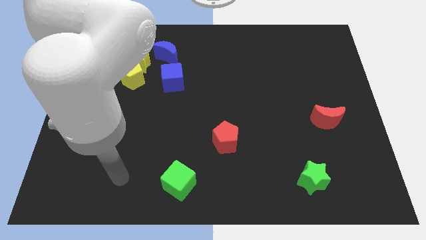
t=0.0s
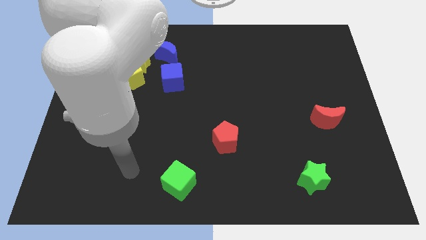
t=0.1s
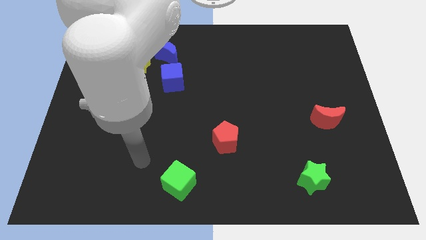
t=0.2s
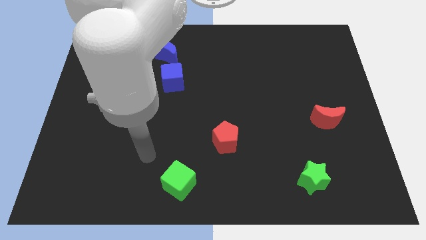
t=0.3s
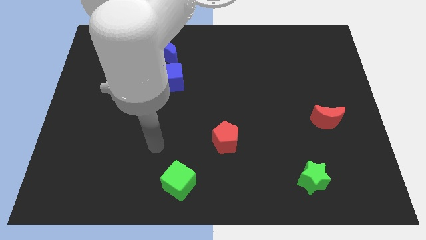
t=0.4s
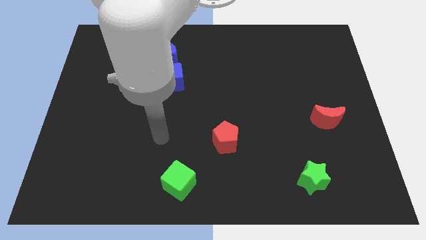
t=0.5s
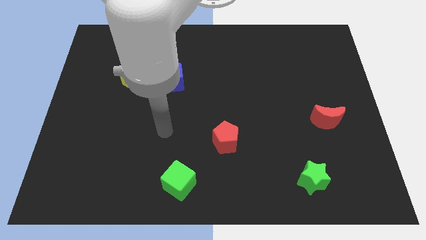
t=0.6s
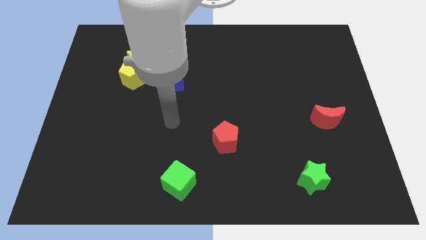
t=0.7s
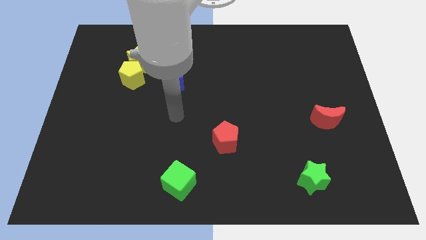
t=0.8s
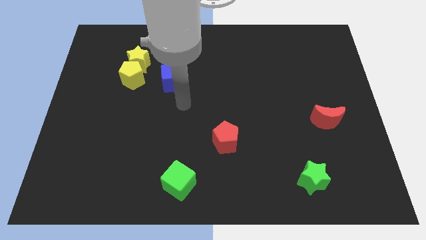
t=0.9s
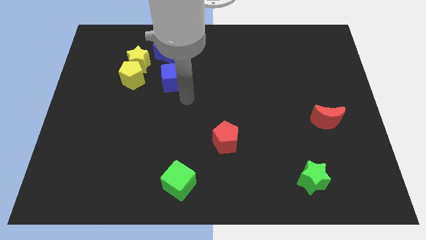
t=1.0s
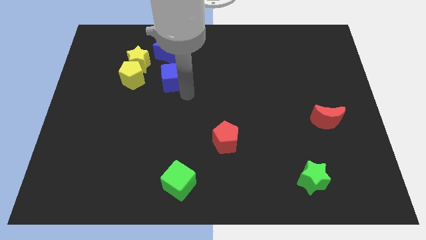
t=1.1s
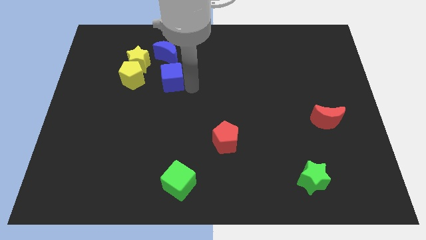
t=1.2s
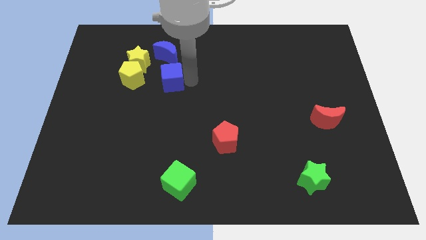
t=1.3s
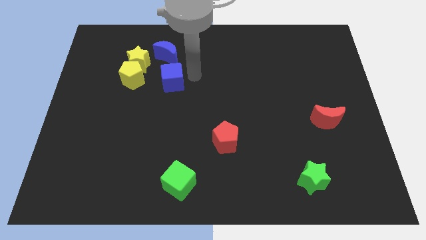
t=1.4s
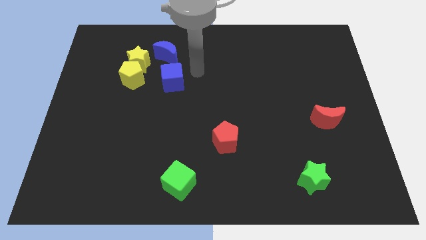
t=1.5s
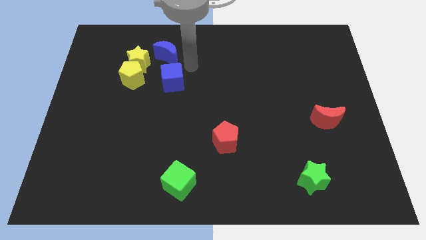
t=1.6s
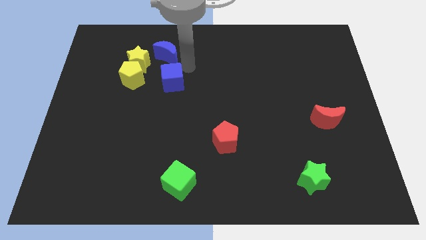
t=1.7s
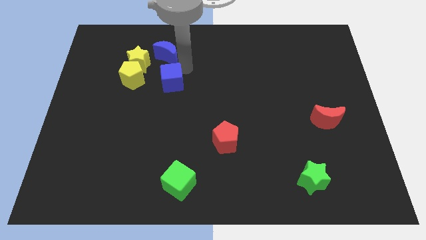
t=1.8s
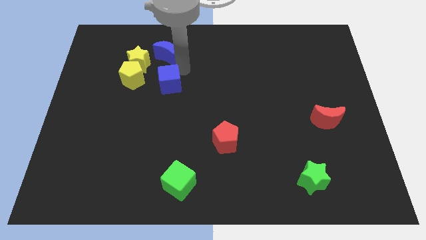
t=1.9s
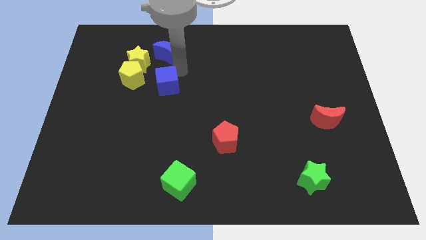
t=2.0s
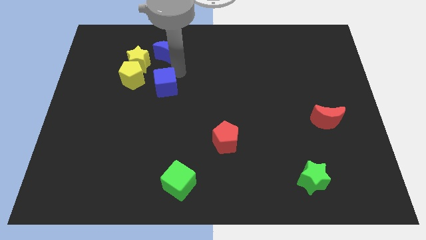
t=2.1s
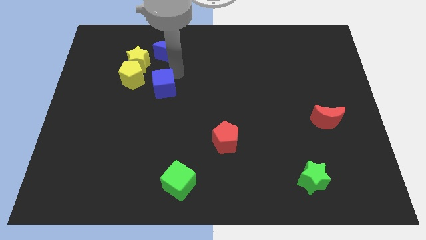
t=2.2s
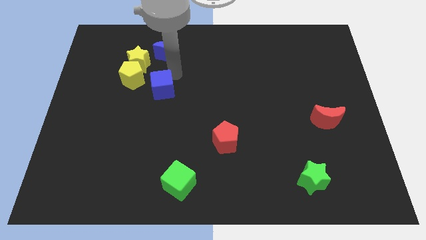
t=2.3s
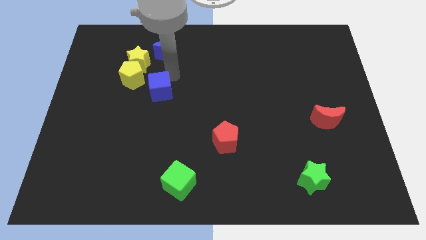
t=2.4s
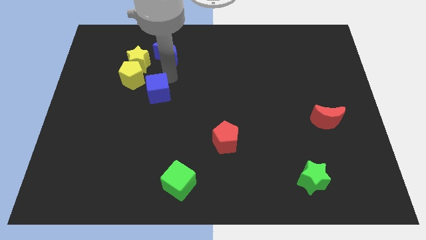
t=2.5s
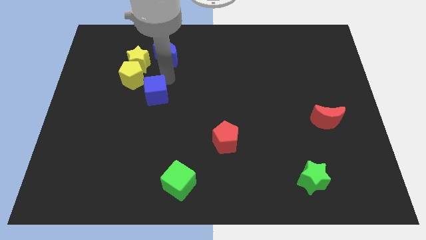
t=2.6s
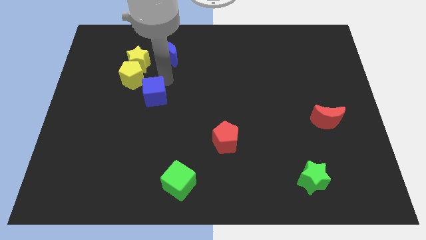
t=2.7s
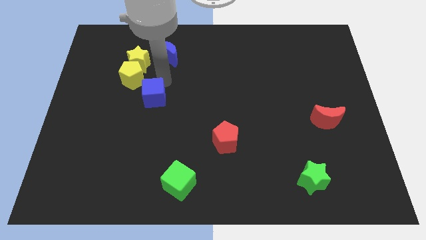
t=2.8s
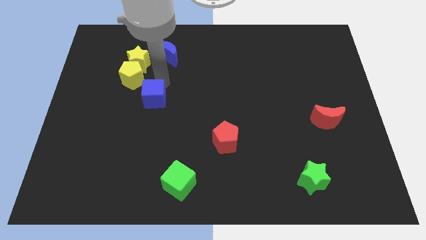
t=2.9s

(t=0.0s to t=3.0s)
slightly slide the blue cube downwards and left

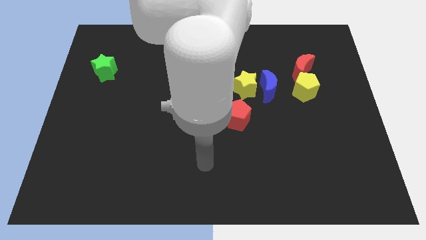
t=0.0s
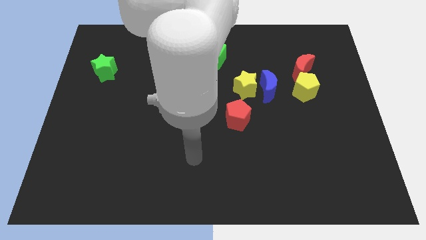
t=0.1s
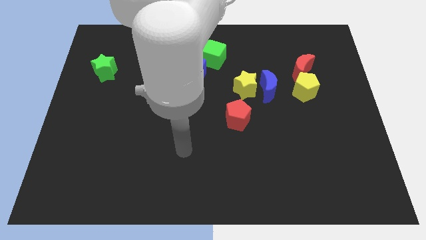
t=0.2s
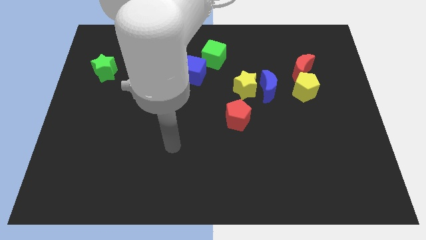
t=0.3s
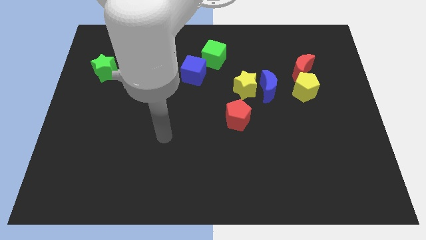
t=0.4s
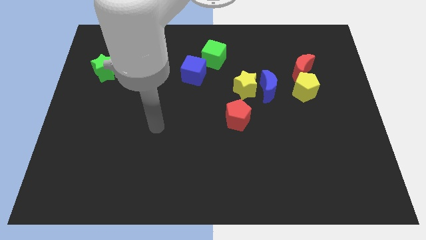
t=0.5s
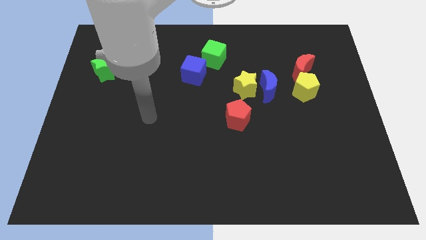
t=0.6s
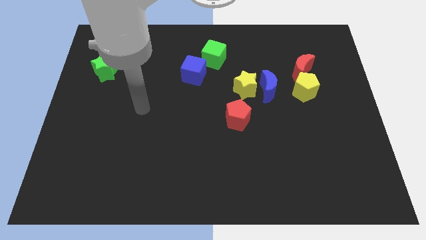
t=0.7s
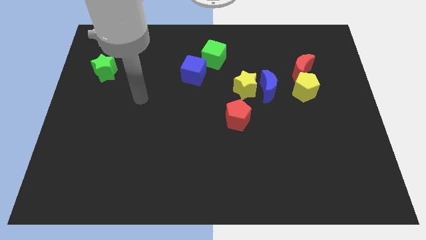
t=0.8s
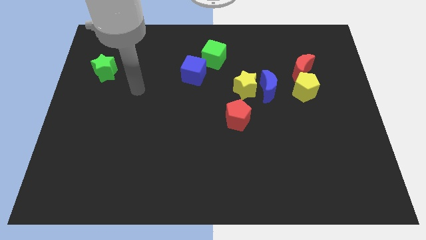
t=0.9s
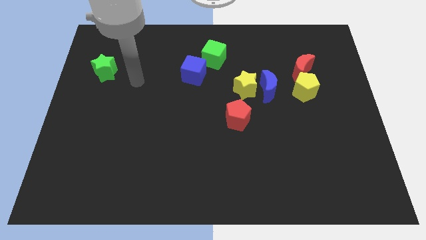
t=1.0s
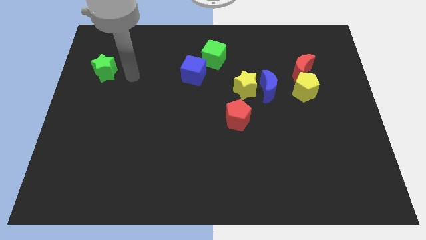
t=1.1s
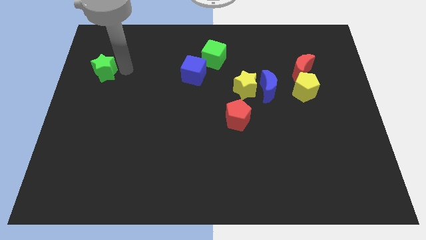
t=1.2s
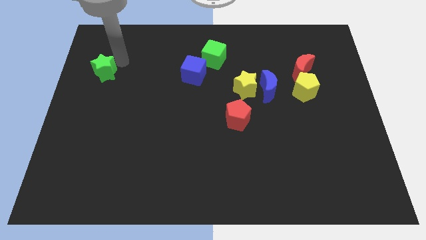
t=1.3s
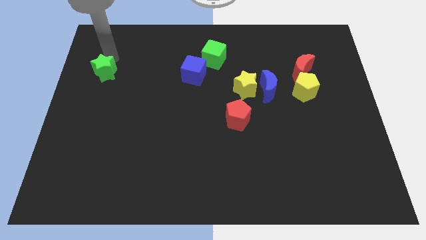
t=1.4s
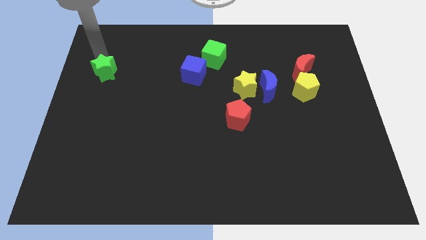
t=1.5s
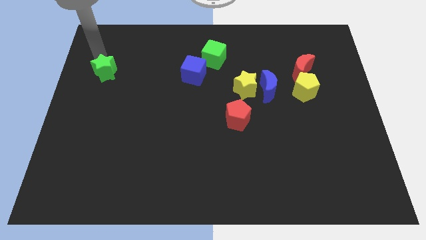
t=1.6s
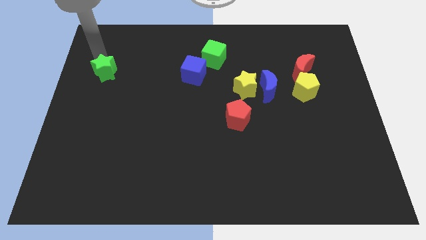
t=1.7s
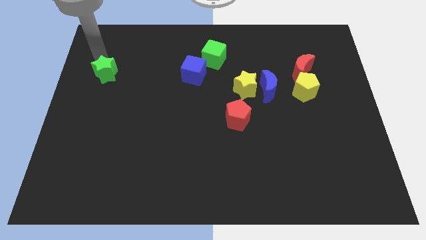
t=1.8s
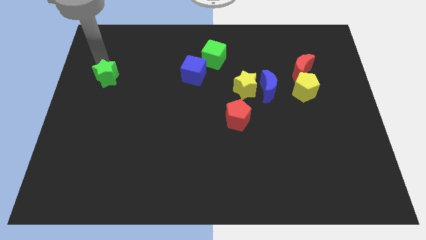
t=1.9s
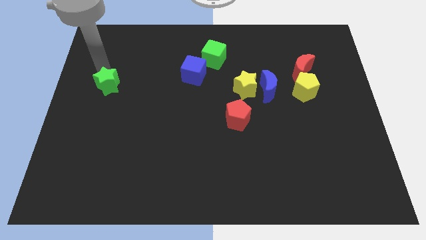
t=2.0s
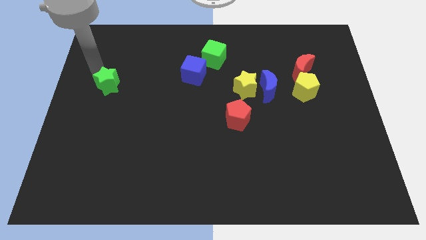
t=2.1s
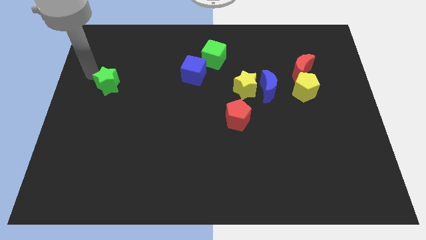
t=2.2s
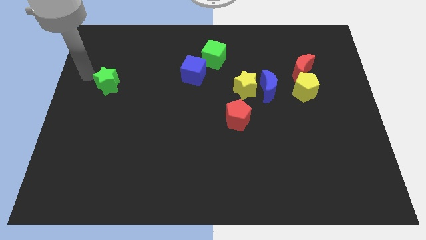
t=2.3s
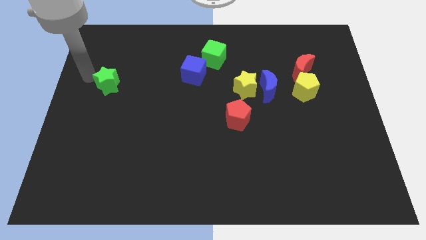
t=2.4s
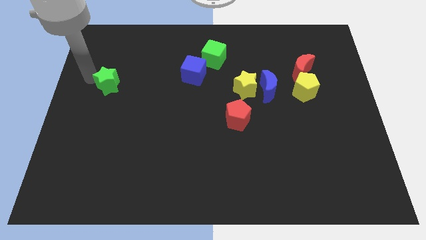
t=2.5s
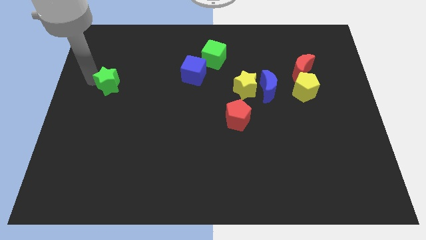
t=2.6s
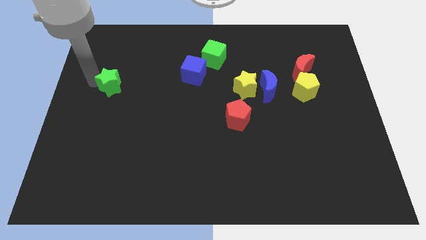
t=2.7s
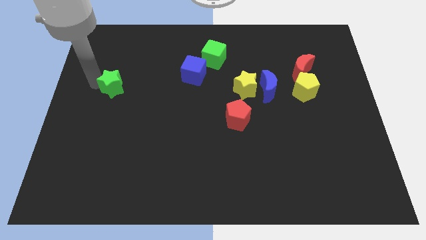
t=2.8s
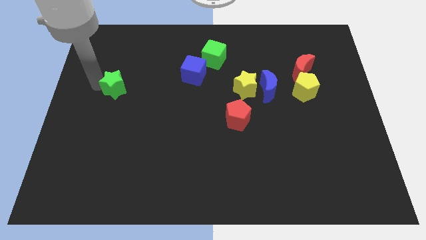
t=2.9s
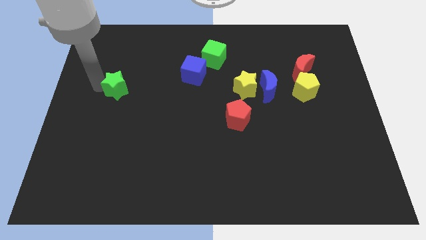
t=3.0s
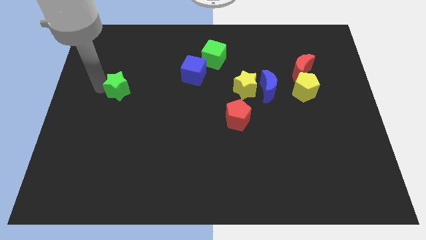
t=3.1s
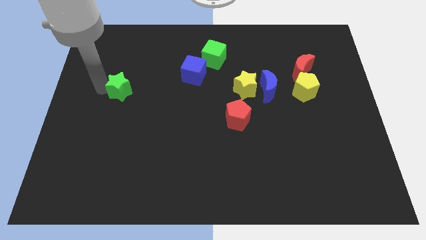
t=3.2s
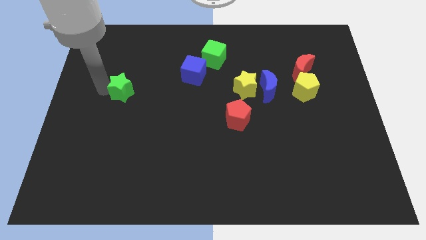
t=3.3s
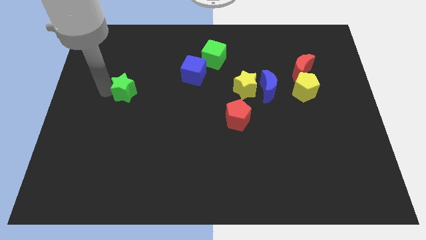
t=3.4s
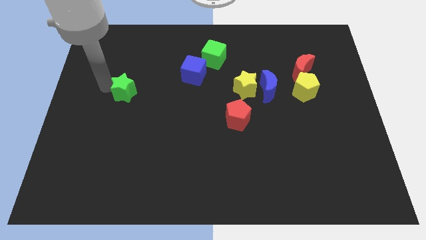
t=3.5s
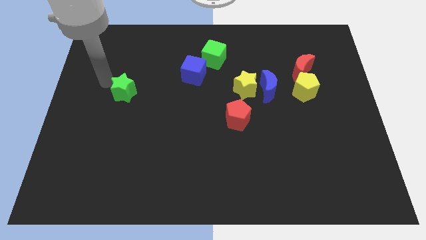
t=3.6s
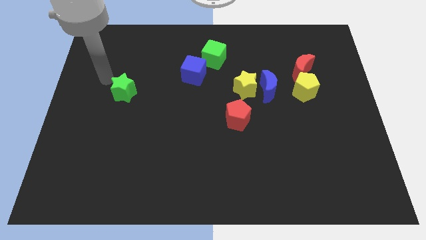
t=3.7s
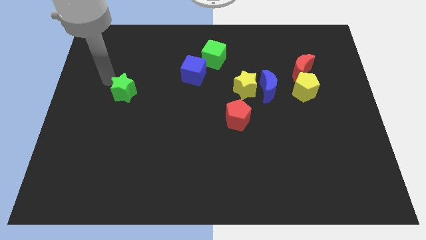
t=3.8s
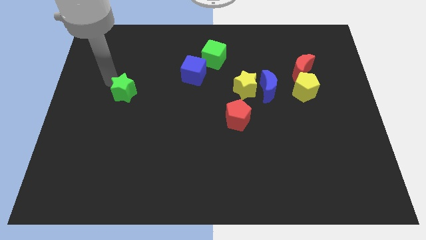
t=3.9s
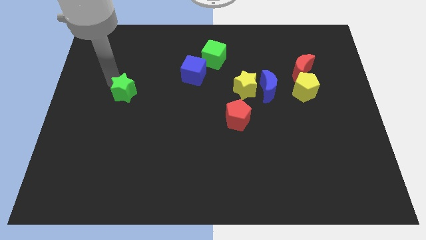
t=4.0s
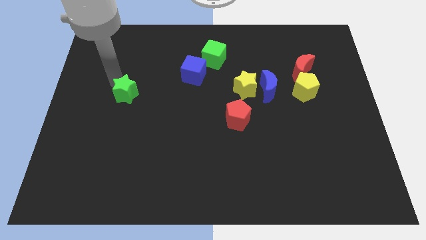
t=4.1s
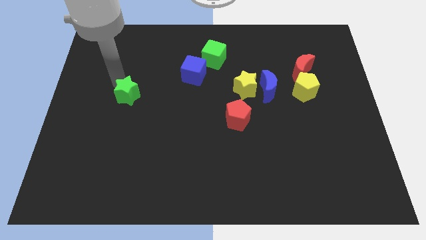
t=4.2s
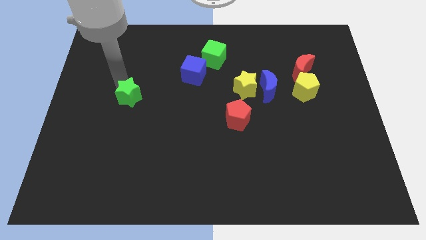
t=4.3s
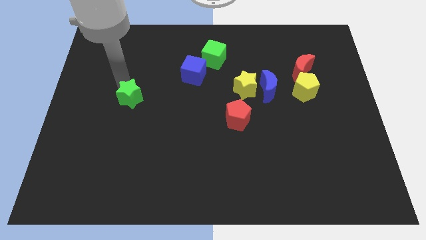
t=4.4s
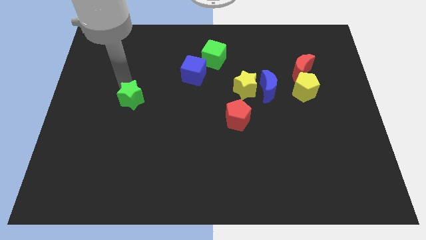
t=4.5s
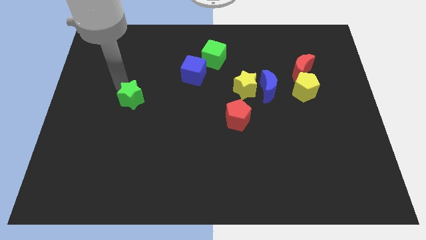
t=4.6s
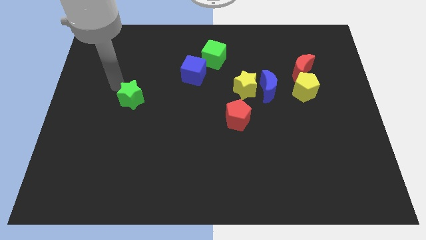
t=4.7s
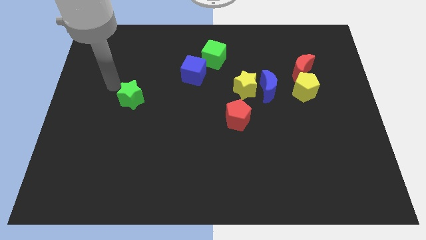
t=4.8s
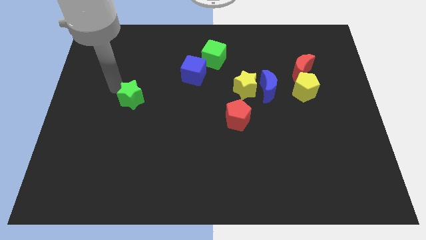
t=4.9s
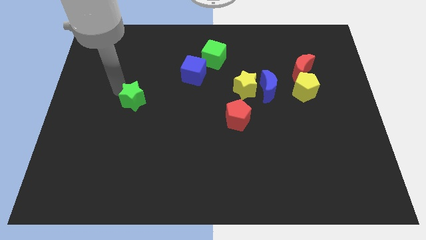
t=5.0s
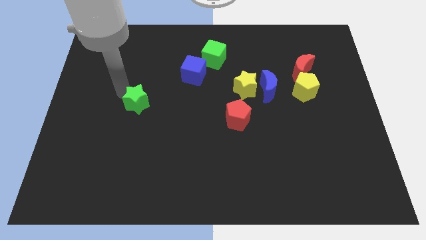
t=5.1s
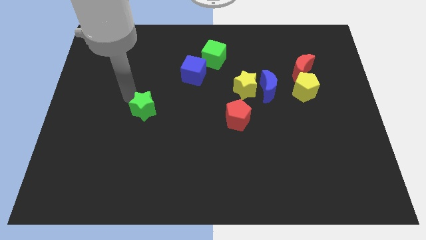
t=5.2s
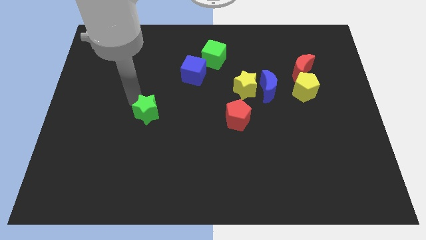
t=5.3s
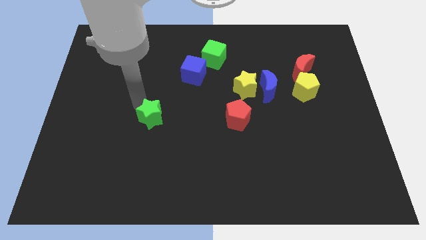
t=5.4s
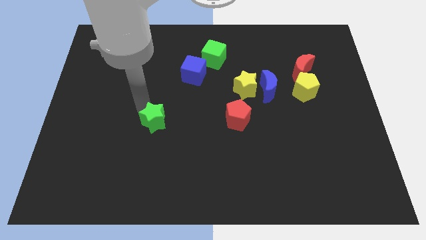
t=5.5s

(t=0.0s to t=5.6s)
slide the green star downwards and to the right diagonally
